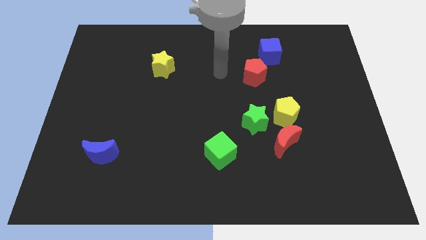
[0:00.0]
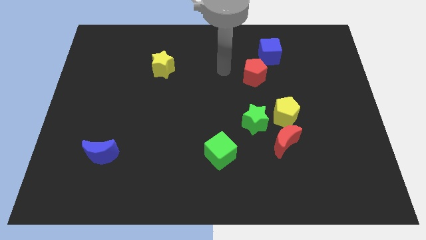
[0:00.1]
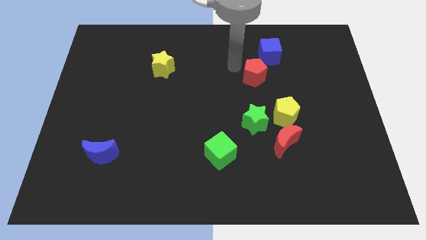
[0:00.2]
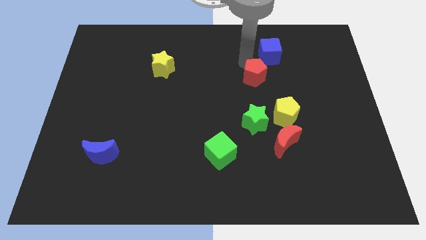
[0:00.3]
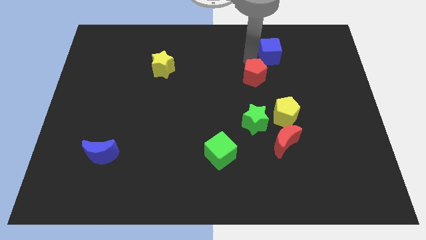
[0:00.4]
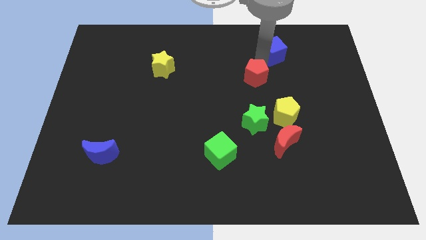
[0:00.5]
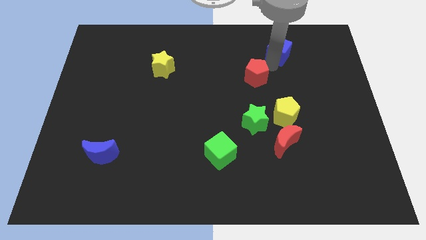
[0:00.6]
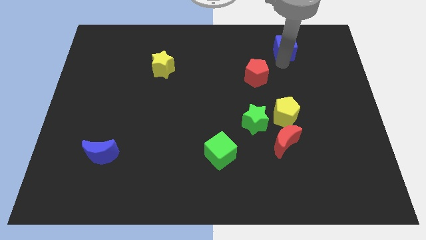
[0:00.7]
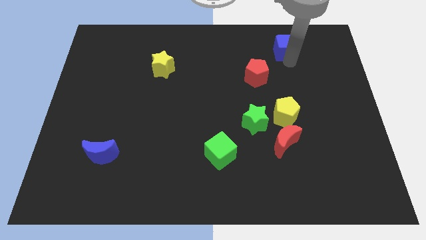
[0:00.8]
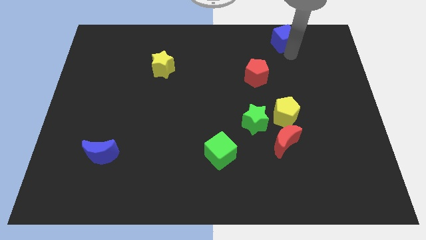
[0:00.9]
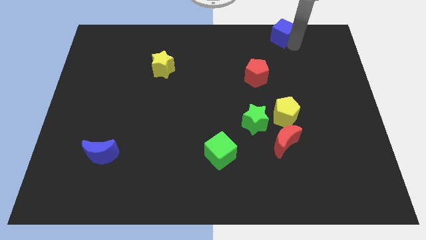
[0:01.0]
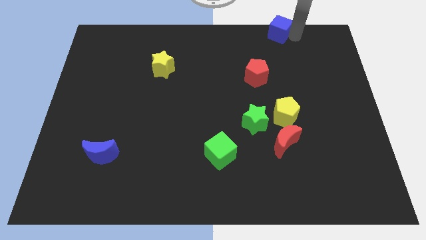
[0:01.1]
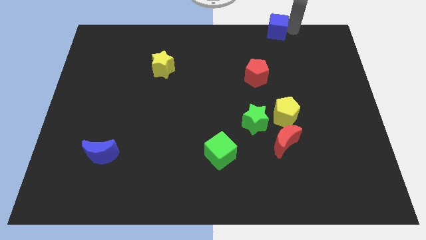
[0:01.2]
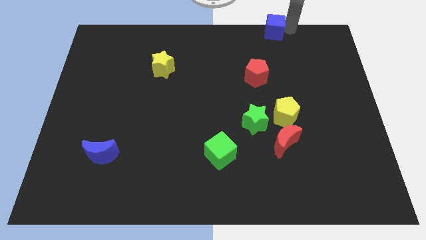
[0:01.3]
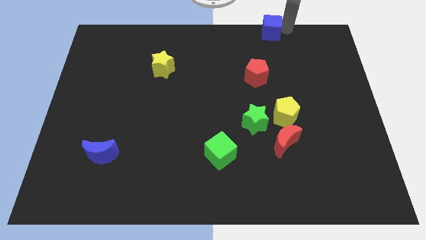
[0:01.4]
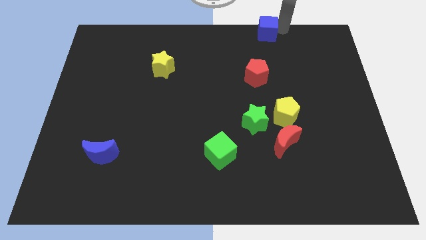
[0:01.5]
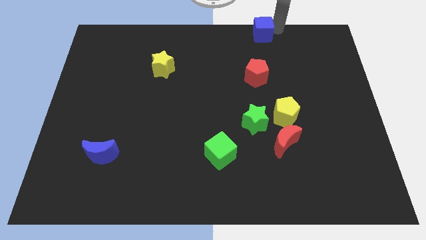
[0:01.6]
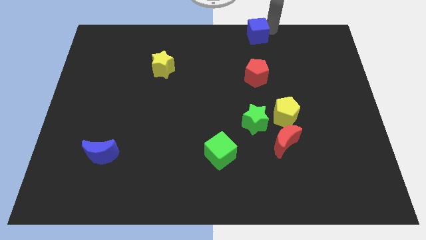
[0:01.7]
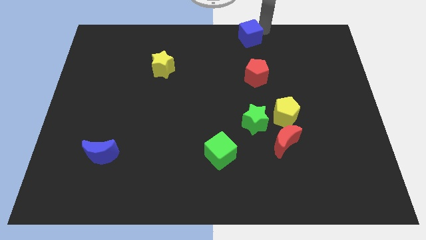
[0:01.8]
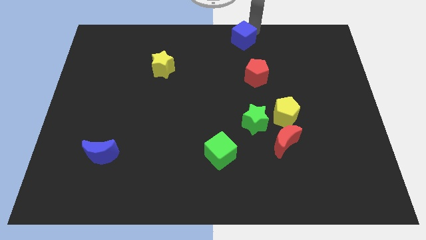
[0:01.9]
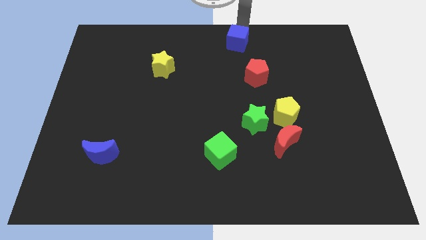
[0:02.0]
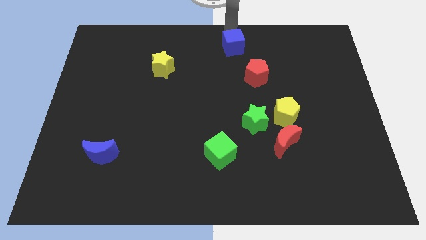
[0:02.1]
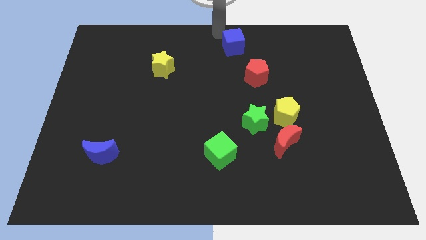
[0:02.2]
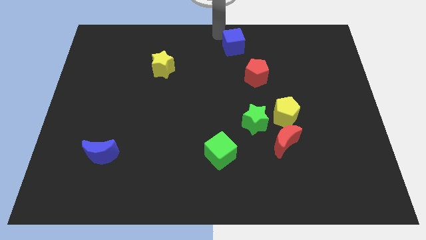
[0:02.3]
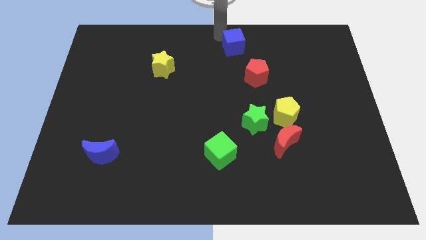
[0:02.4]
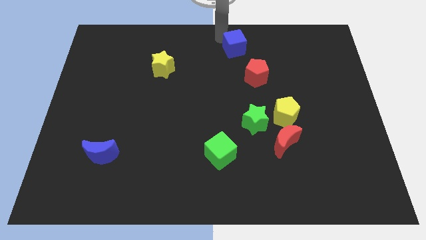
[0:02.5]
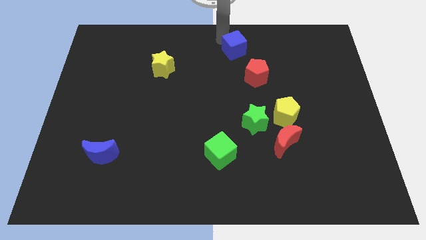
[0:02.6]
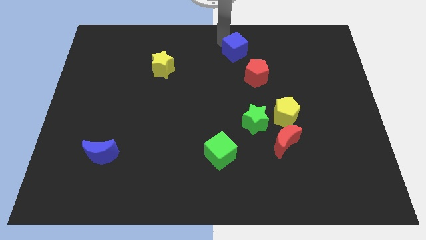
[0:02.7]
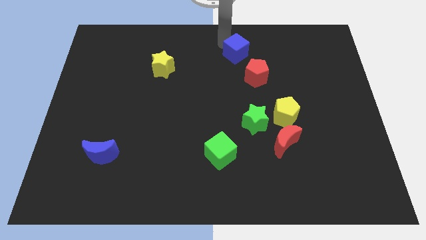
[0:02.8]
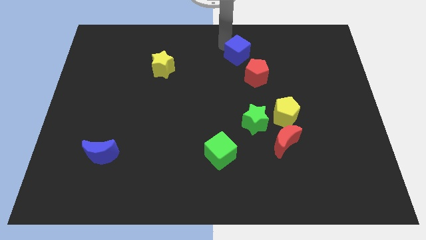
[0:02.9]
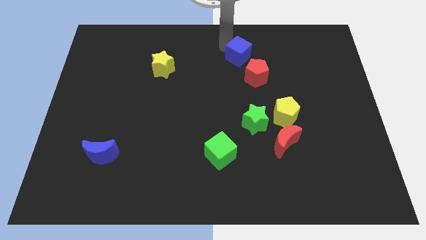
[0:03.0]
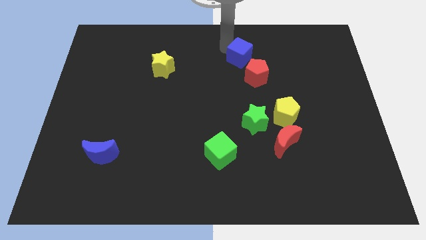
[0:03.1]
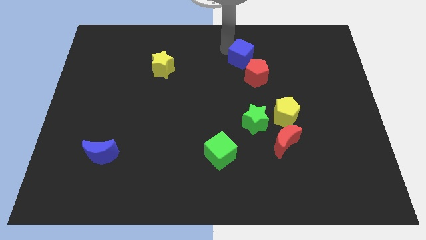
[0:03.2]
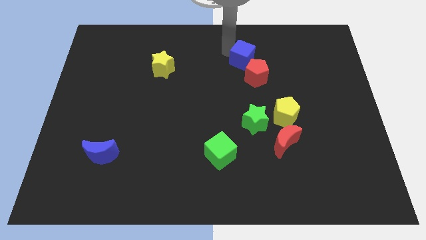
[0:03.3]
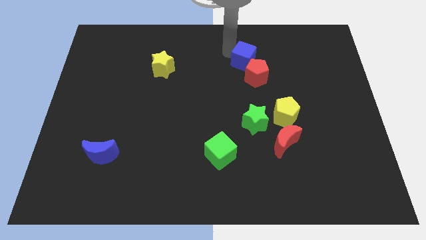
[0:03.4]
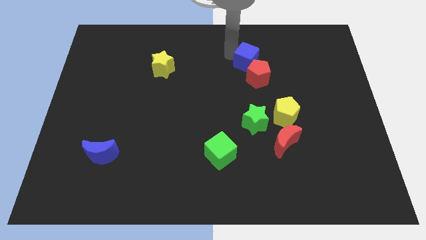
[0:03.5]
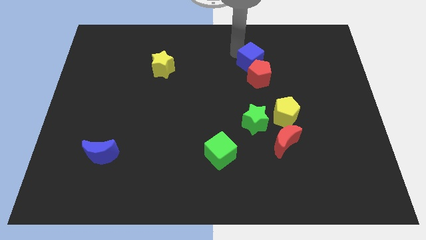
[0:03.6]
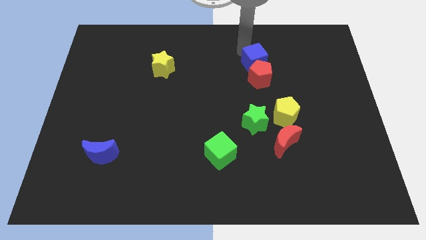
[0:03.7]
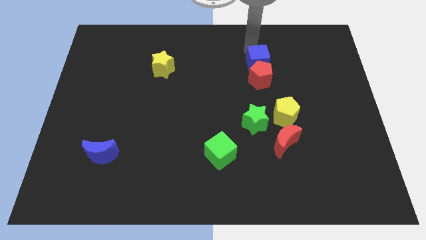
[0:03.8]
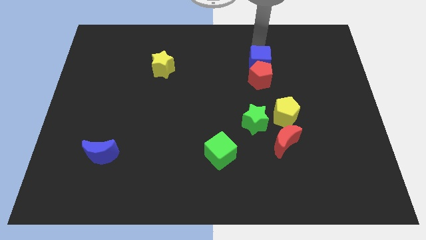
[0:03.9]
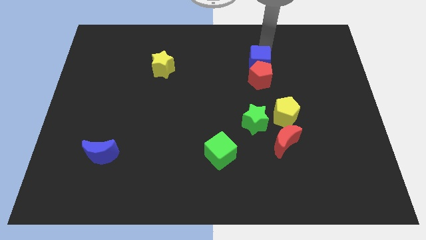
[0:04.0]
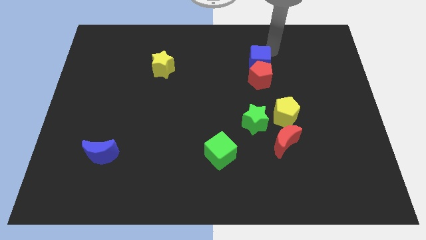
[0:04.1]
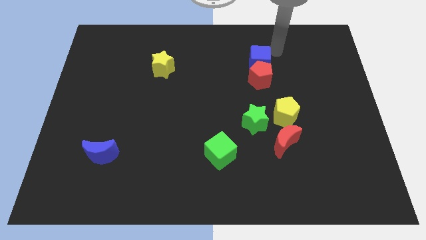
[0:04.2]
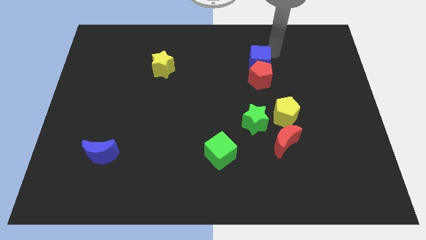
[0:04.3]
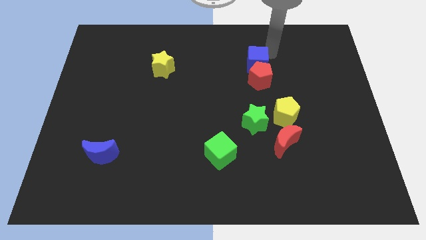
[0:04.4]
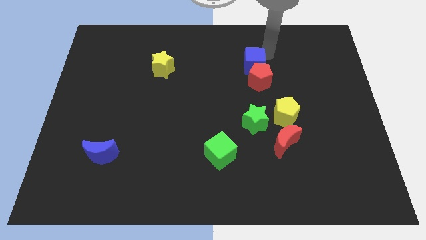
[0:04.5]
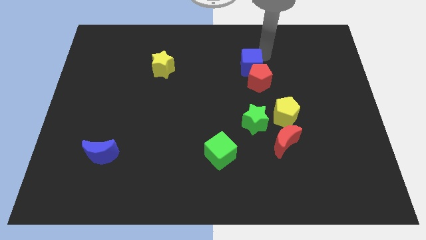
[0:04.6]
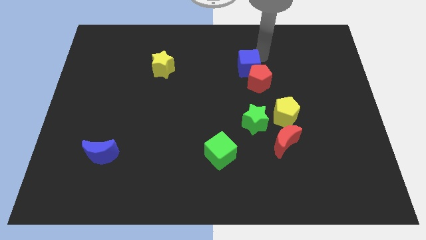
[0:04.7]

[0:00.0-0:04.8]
slightly push the blue cube diagonally down and to the left

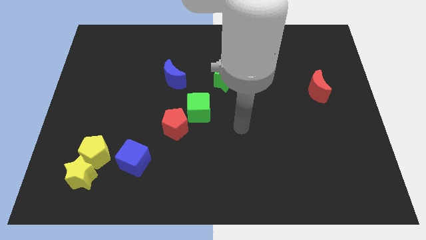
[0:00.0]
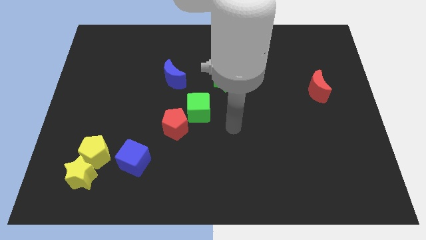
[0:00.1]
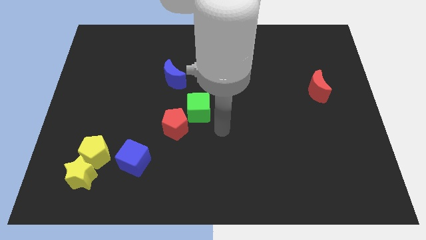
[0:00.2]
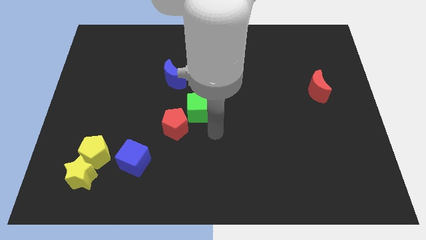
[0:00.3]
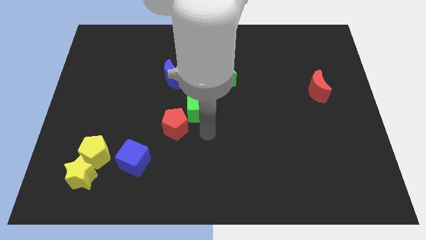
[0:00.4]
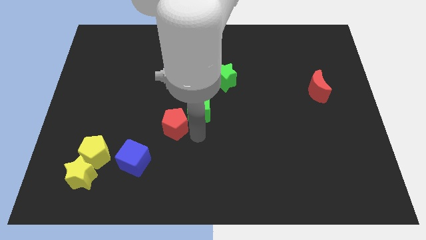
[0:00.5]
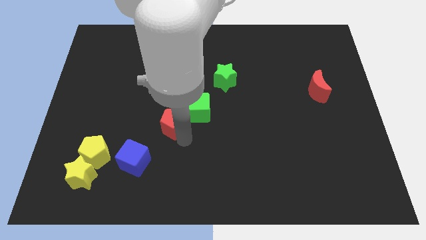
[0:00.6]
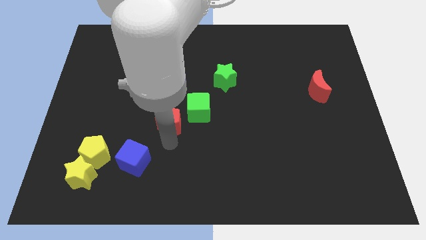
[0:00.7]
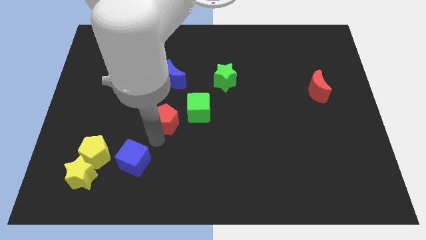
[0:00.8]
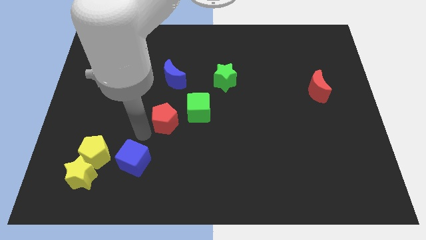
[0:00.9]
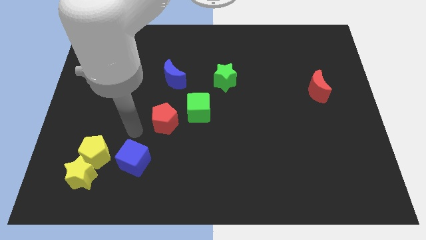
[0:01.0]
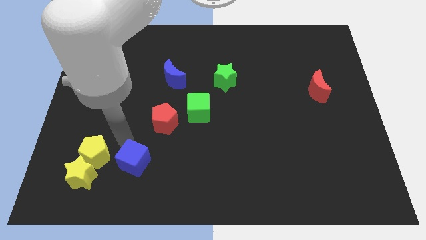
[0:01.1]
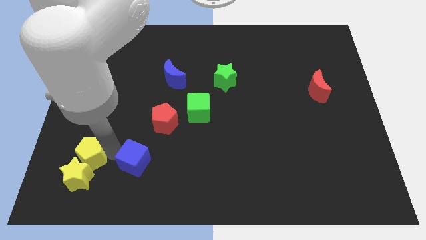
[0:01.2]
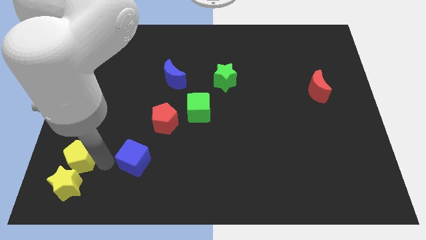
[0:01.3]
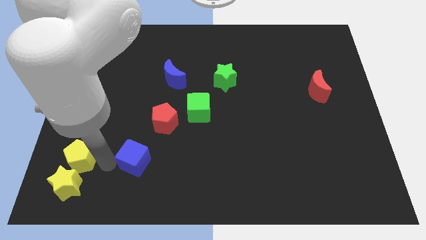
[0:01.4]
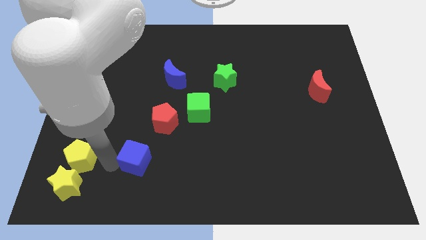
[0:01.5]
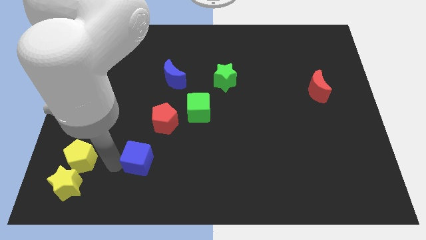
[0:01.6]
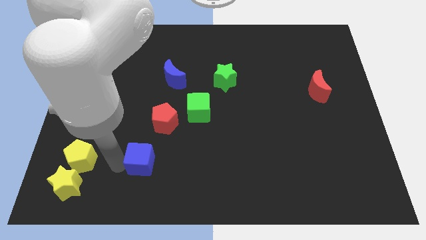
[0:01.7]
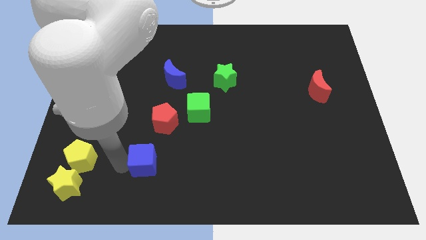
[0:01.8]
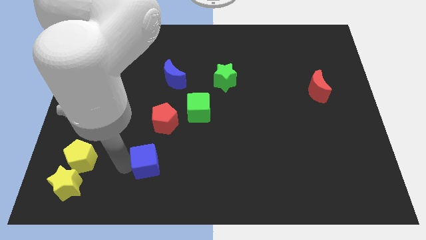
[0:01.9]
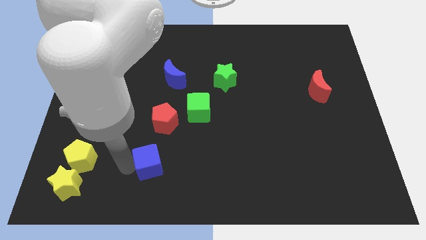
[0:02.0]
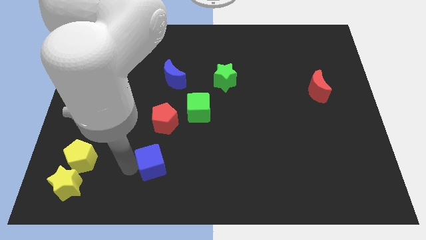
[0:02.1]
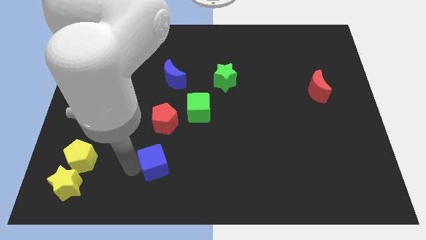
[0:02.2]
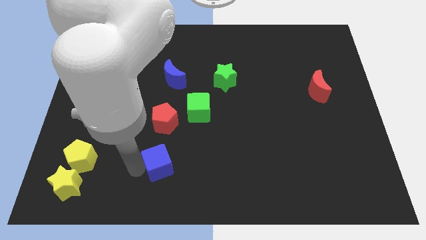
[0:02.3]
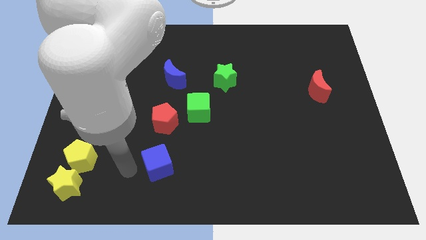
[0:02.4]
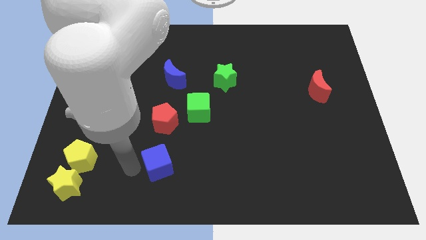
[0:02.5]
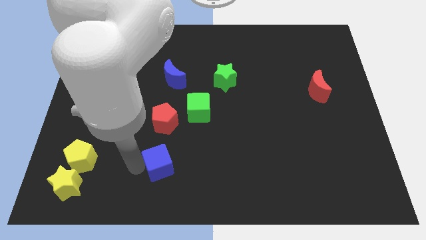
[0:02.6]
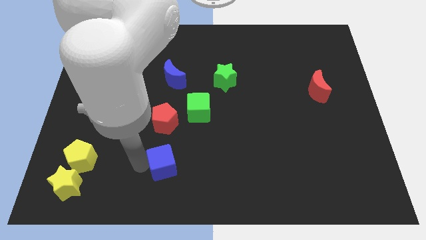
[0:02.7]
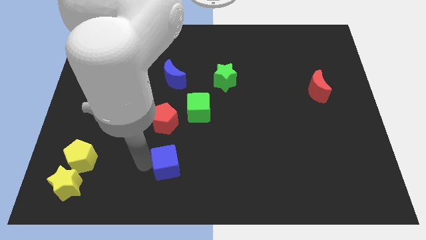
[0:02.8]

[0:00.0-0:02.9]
slightly slide the blue cube to the right

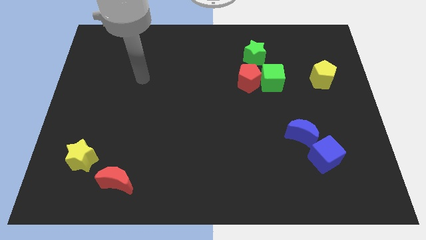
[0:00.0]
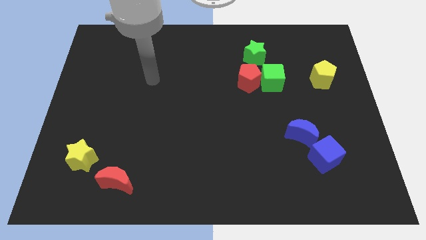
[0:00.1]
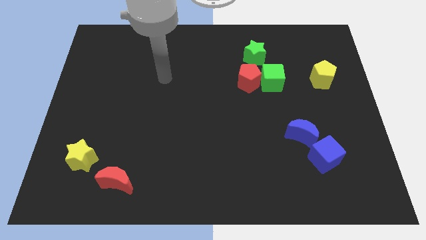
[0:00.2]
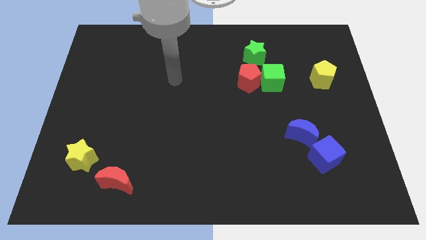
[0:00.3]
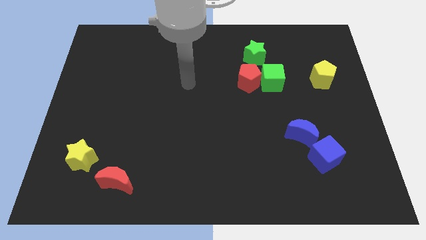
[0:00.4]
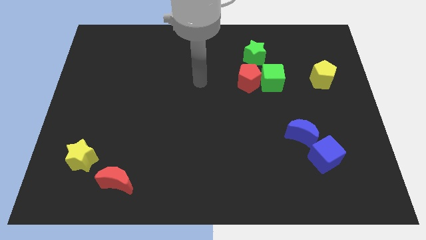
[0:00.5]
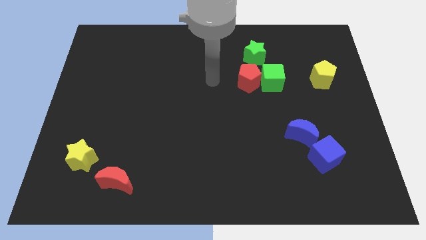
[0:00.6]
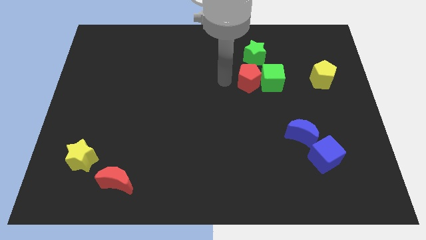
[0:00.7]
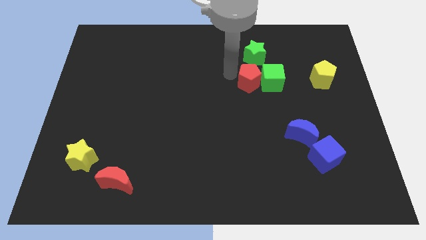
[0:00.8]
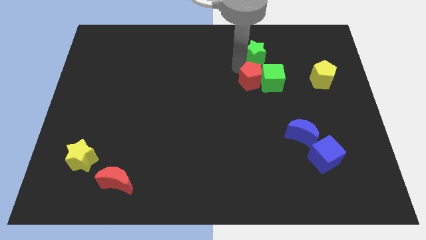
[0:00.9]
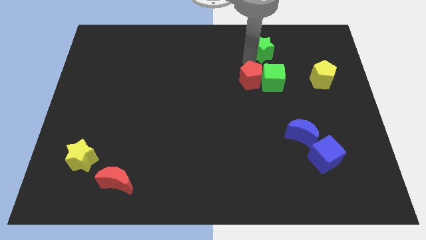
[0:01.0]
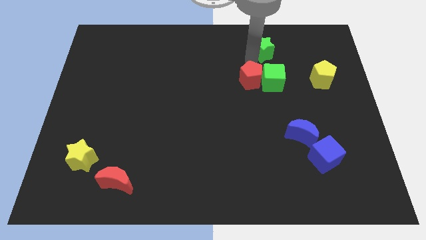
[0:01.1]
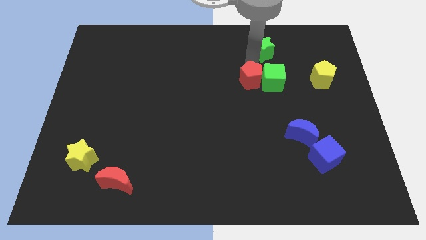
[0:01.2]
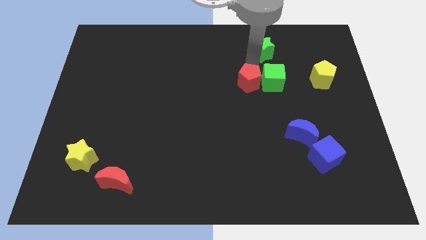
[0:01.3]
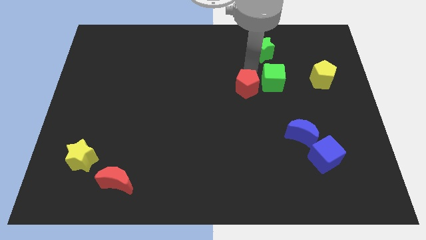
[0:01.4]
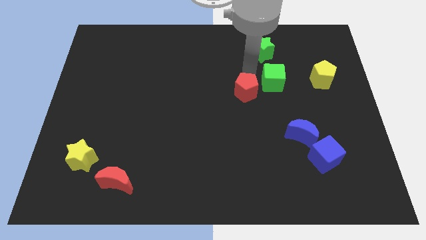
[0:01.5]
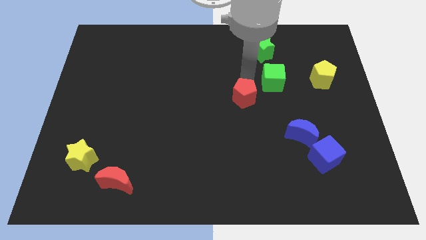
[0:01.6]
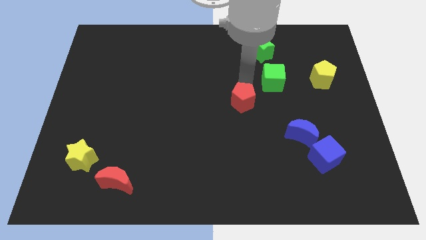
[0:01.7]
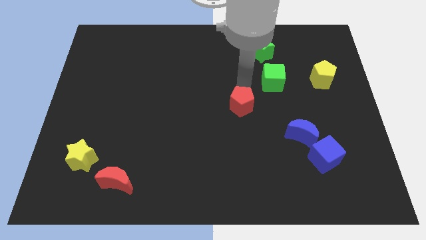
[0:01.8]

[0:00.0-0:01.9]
slightly slide the red pentagon down
